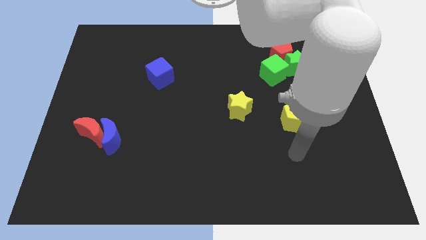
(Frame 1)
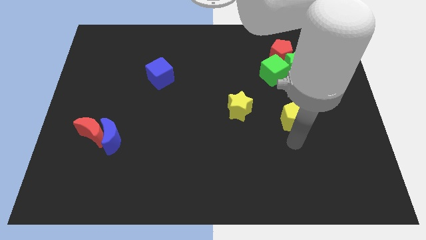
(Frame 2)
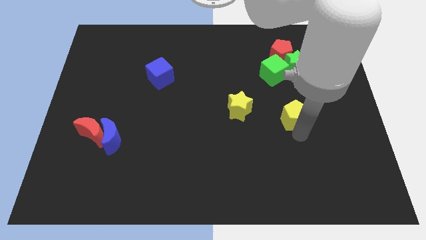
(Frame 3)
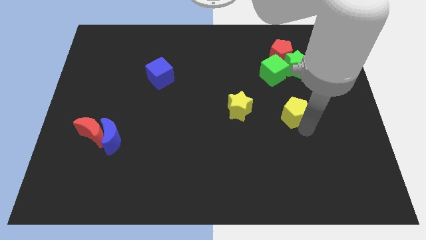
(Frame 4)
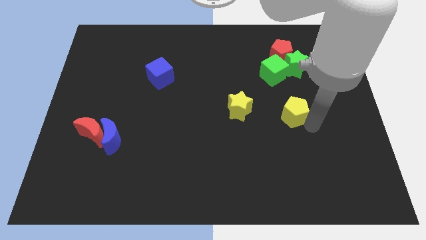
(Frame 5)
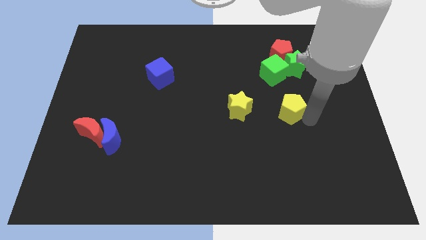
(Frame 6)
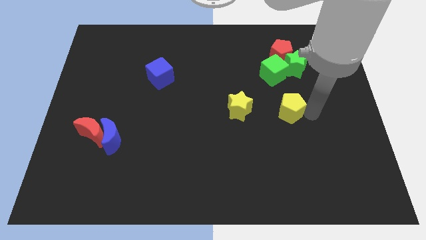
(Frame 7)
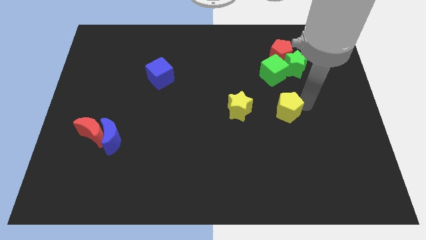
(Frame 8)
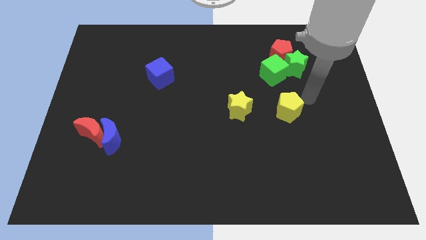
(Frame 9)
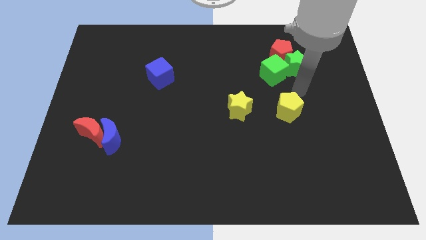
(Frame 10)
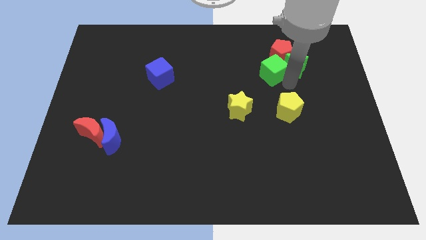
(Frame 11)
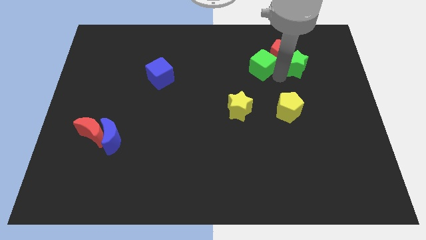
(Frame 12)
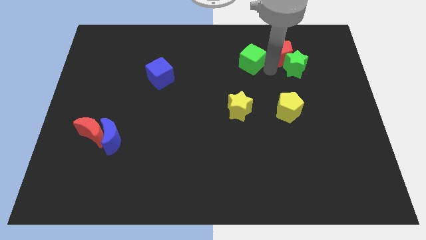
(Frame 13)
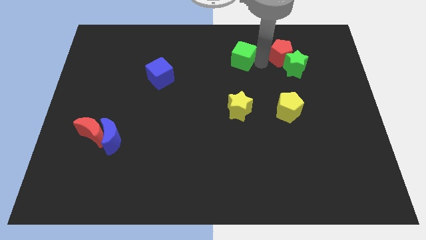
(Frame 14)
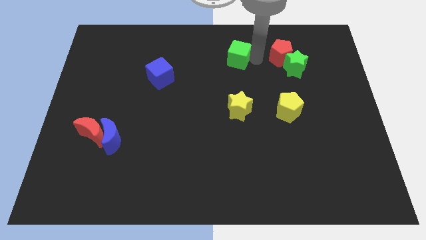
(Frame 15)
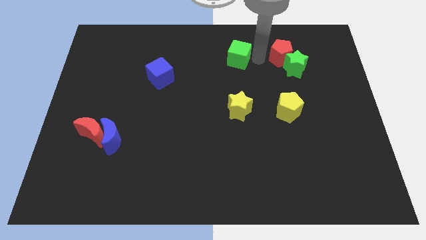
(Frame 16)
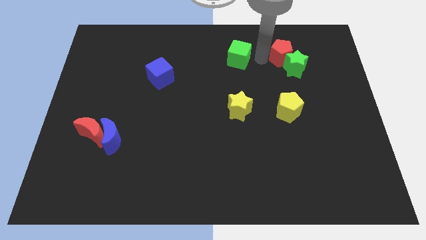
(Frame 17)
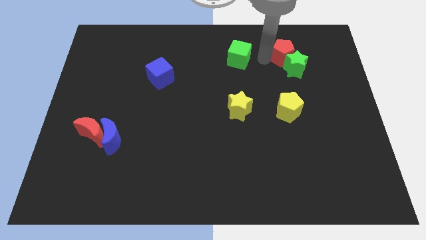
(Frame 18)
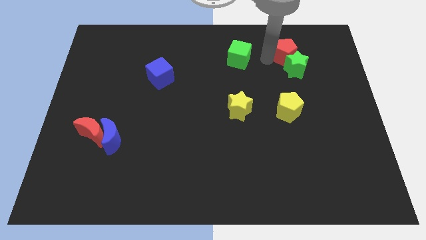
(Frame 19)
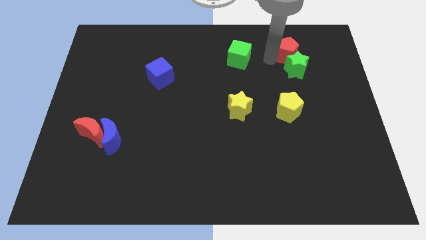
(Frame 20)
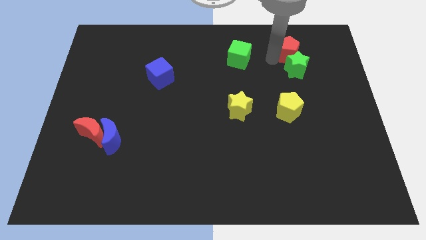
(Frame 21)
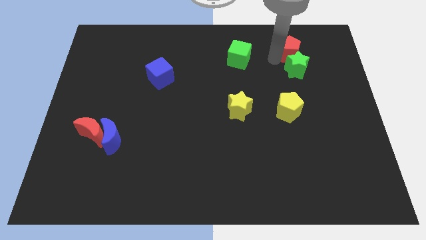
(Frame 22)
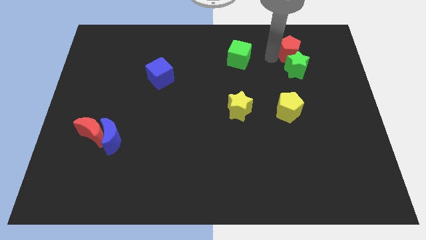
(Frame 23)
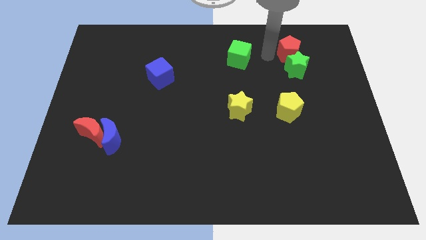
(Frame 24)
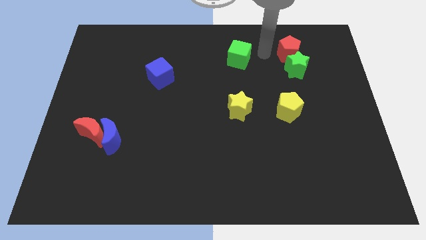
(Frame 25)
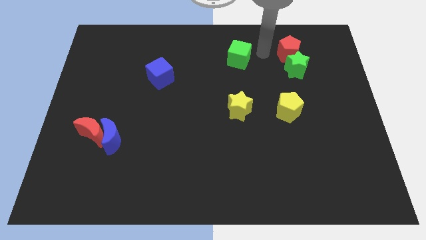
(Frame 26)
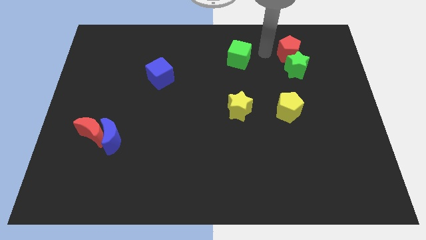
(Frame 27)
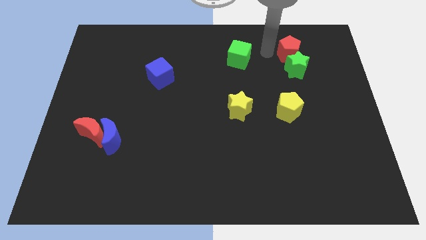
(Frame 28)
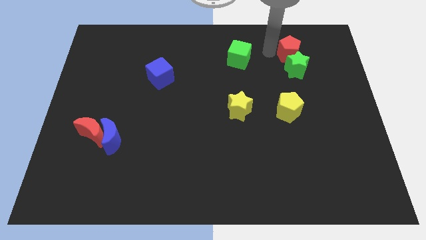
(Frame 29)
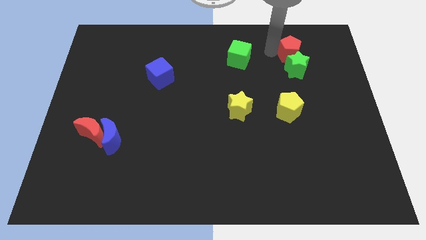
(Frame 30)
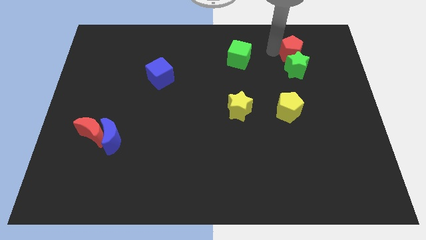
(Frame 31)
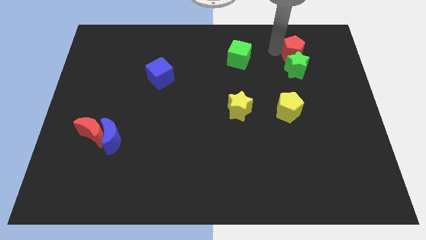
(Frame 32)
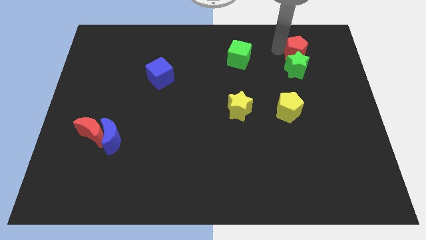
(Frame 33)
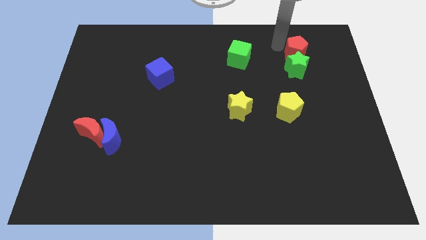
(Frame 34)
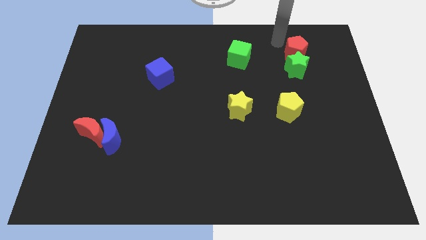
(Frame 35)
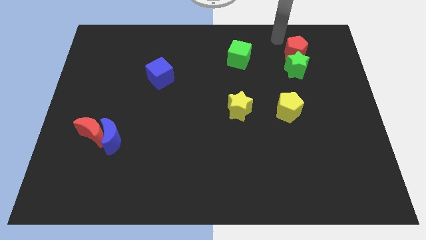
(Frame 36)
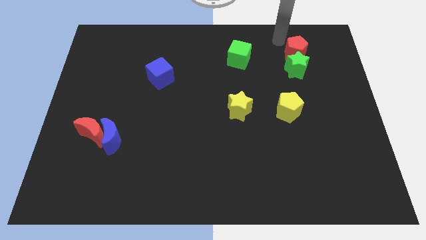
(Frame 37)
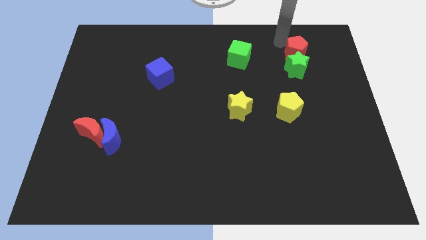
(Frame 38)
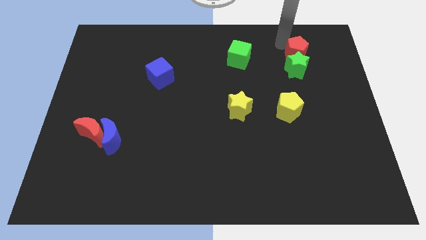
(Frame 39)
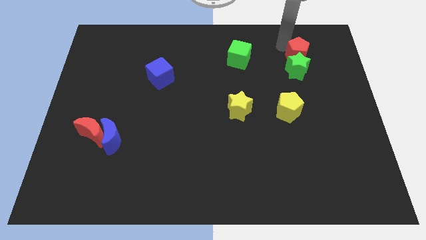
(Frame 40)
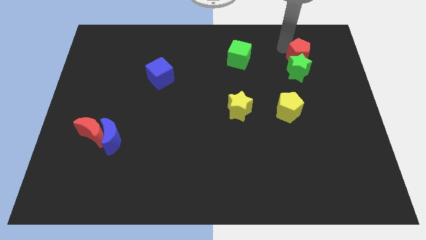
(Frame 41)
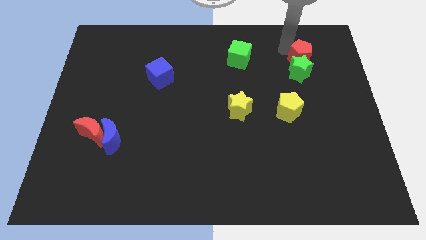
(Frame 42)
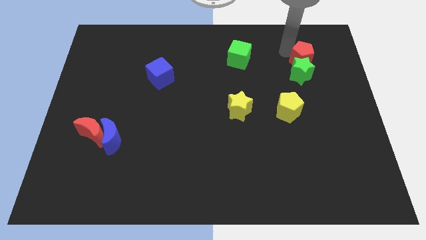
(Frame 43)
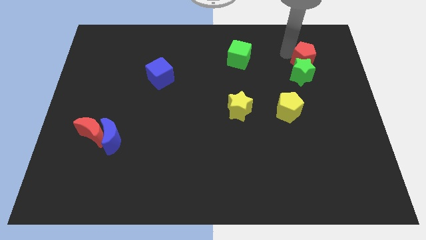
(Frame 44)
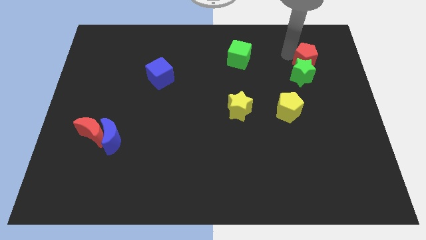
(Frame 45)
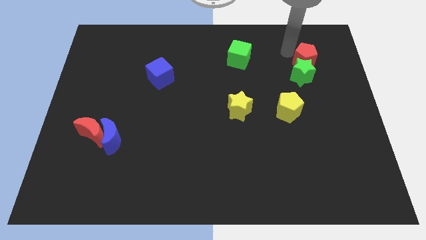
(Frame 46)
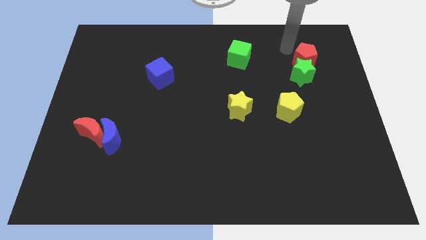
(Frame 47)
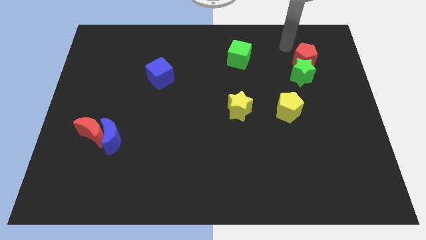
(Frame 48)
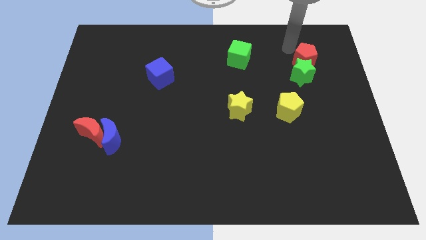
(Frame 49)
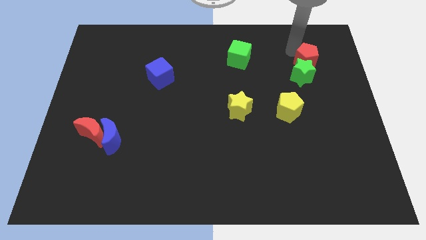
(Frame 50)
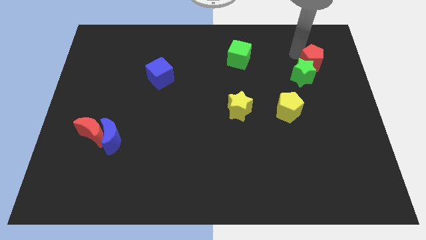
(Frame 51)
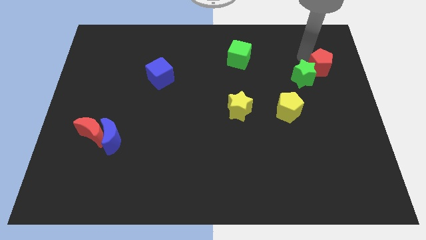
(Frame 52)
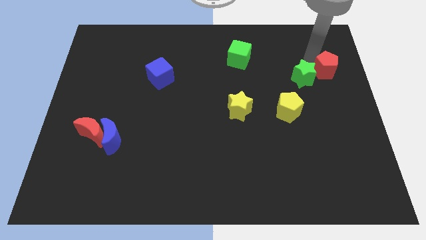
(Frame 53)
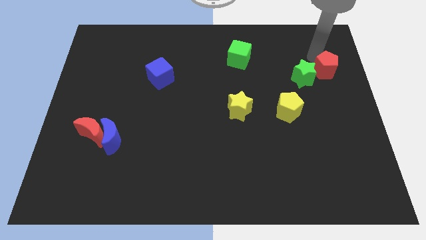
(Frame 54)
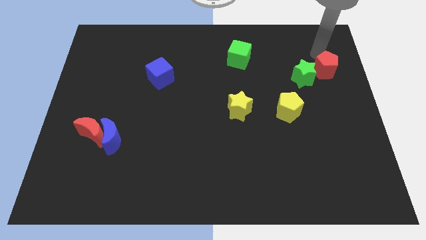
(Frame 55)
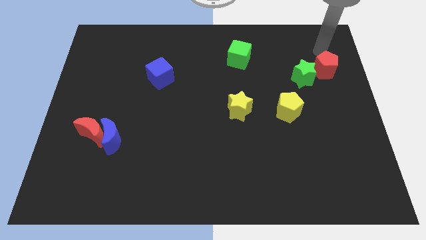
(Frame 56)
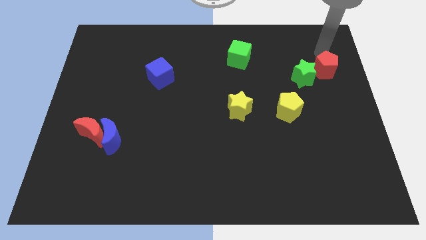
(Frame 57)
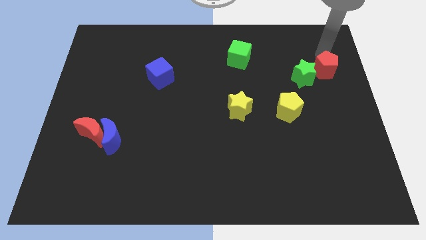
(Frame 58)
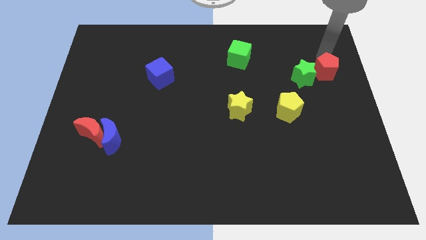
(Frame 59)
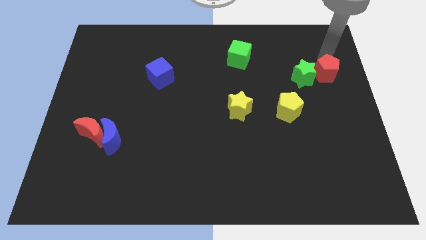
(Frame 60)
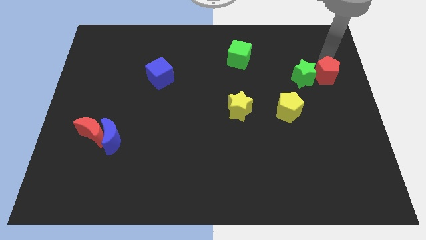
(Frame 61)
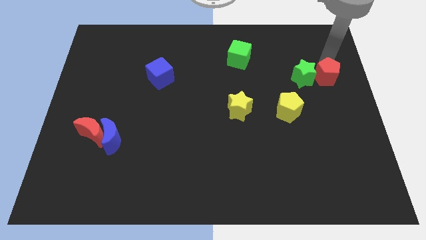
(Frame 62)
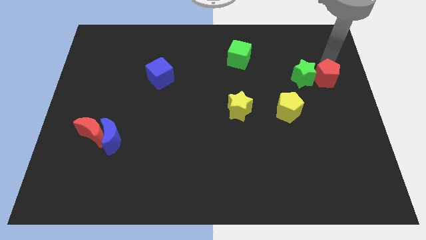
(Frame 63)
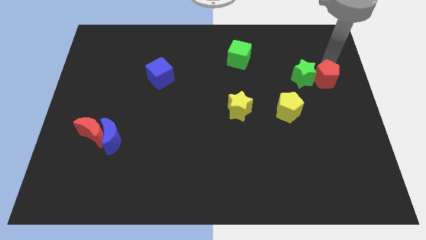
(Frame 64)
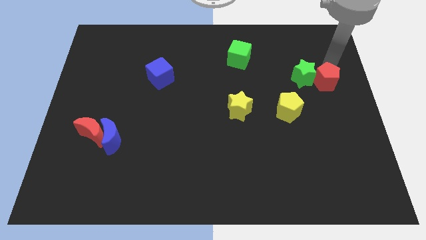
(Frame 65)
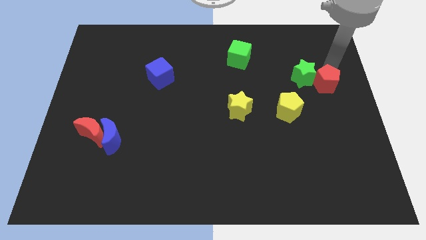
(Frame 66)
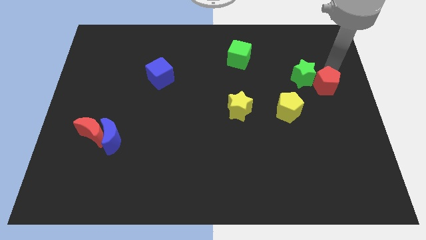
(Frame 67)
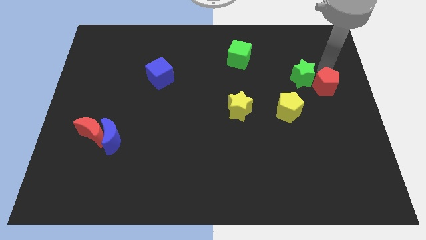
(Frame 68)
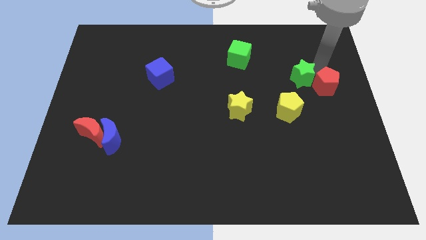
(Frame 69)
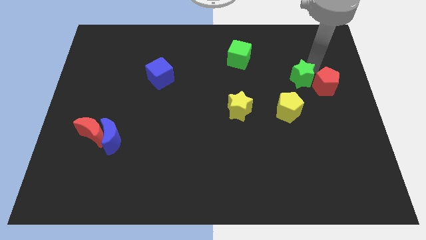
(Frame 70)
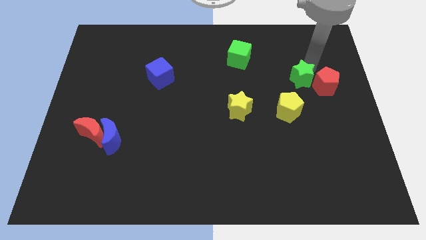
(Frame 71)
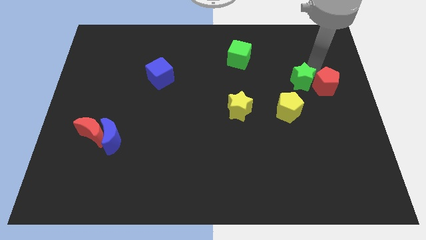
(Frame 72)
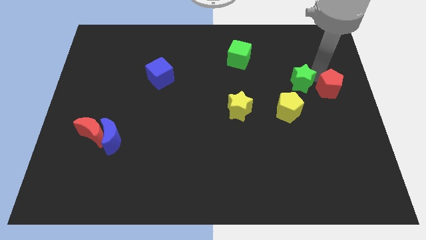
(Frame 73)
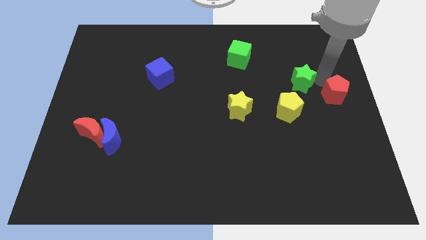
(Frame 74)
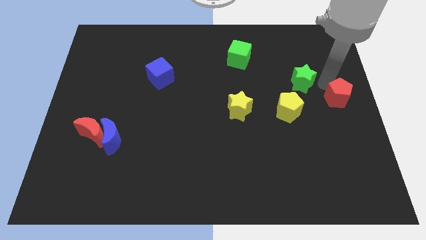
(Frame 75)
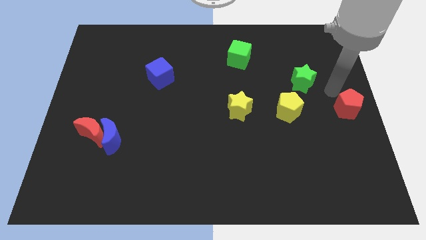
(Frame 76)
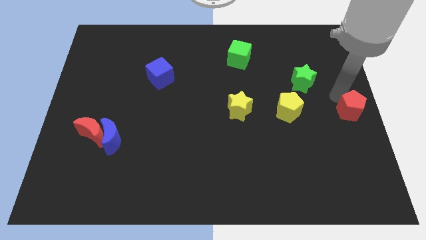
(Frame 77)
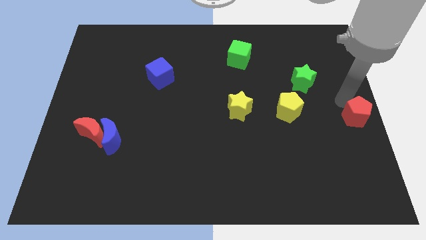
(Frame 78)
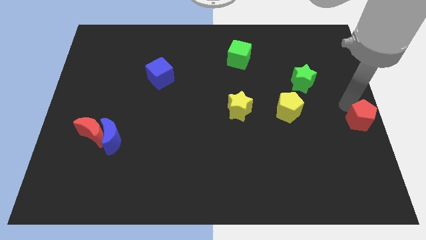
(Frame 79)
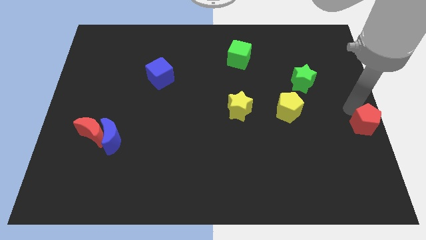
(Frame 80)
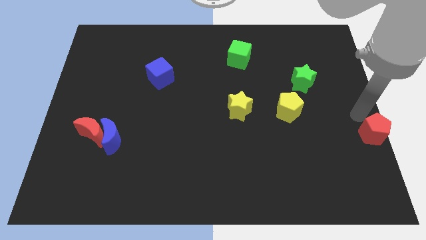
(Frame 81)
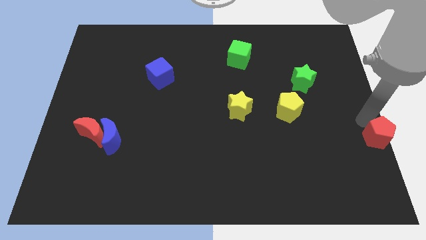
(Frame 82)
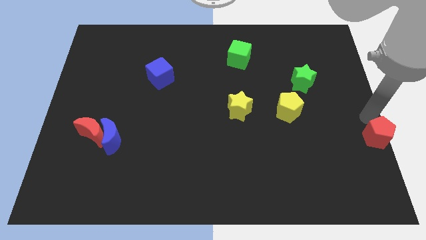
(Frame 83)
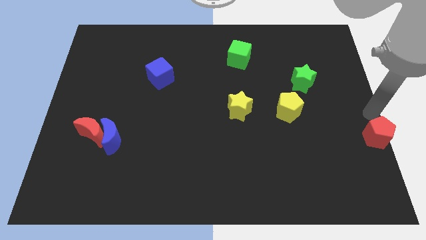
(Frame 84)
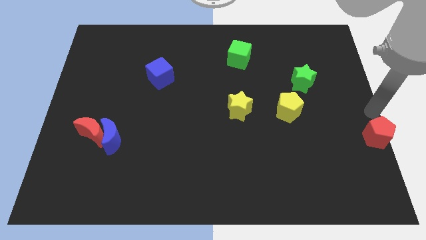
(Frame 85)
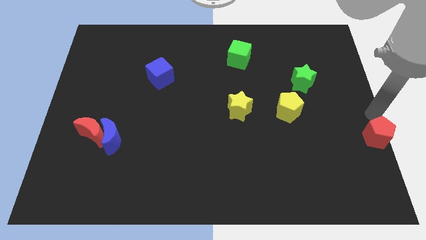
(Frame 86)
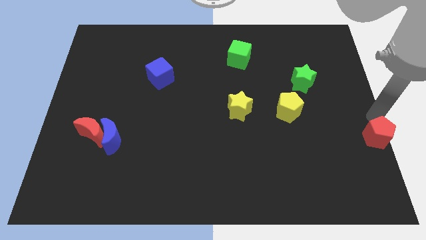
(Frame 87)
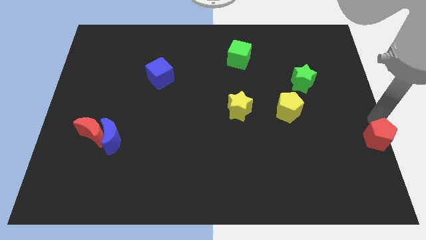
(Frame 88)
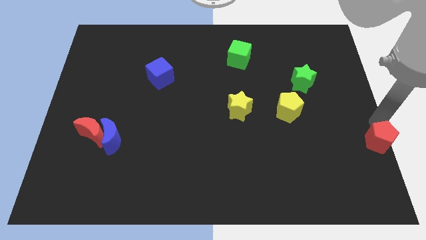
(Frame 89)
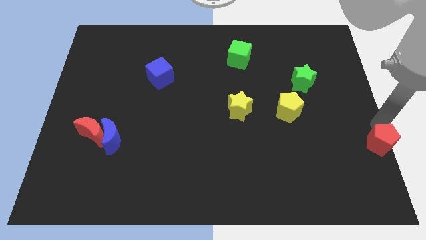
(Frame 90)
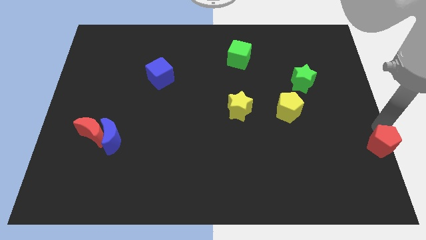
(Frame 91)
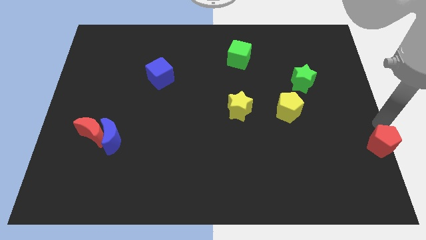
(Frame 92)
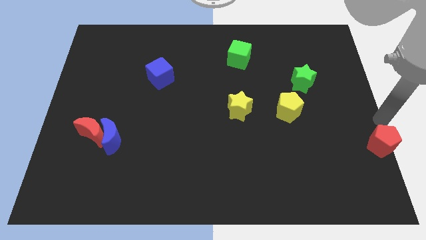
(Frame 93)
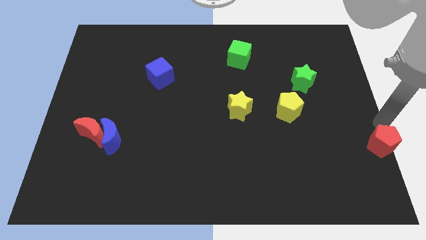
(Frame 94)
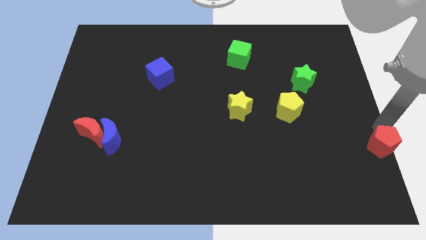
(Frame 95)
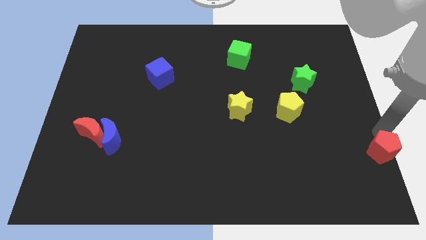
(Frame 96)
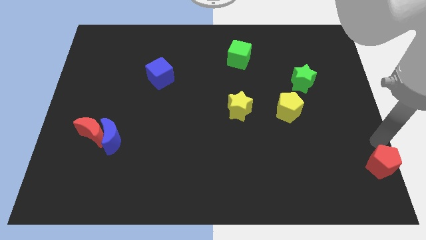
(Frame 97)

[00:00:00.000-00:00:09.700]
put the red pentagon to the bottom right
